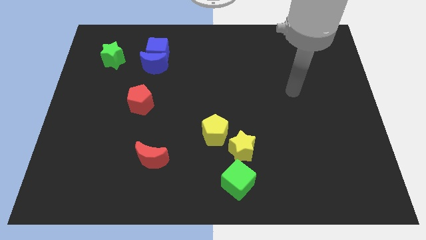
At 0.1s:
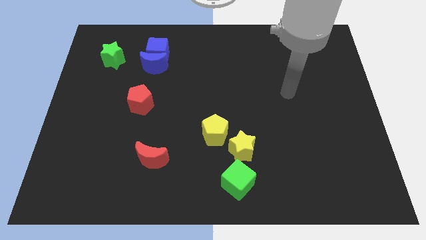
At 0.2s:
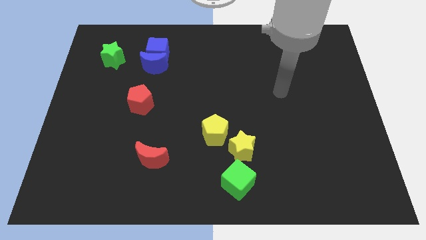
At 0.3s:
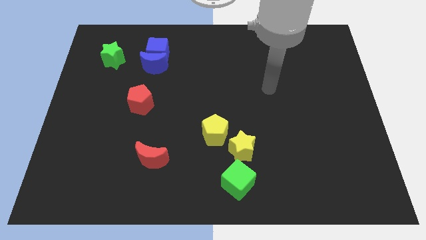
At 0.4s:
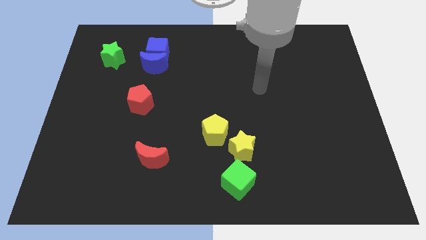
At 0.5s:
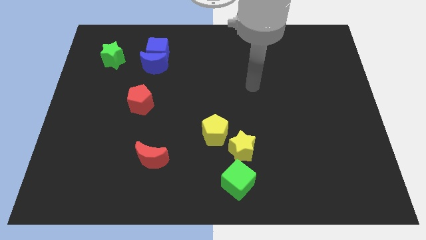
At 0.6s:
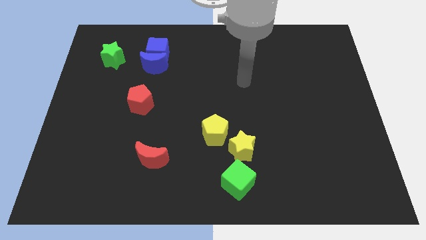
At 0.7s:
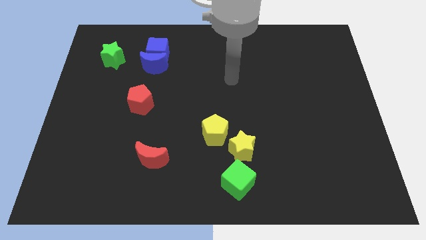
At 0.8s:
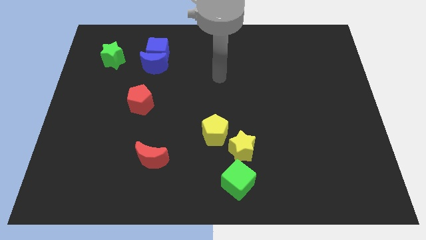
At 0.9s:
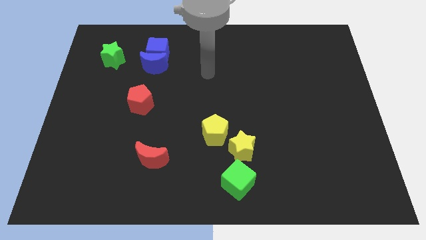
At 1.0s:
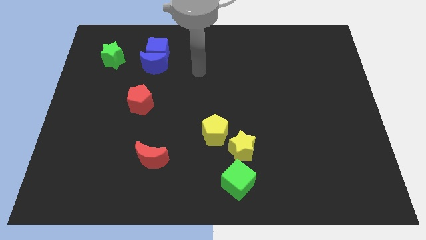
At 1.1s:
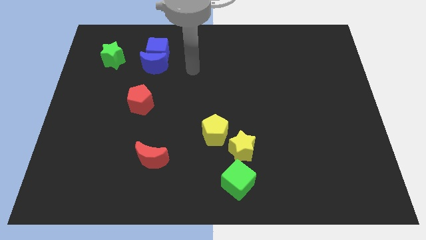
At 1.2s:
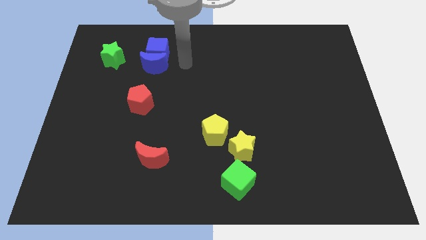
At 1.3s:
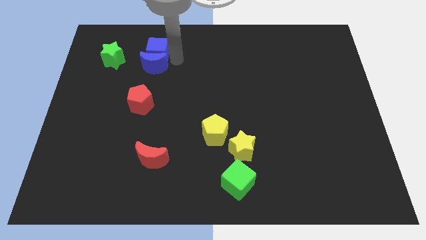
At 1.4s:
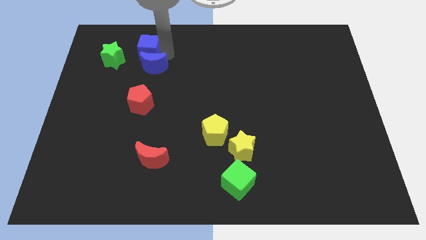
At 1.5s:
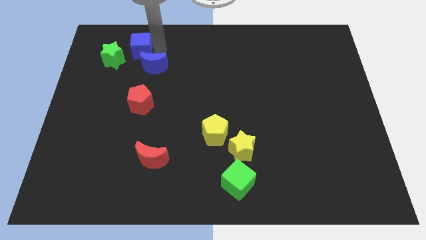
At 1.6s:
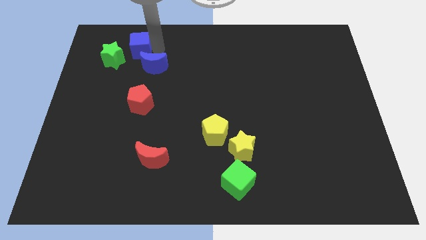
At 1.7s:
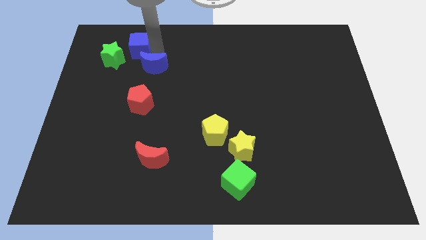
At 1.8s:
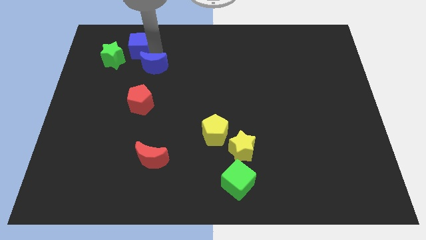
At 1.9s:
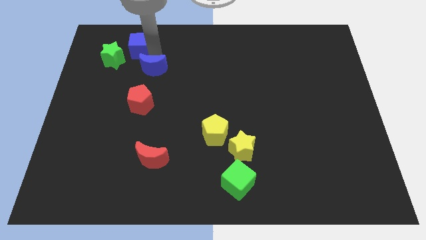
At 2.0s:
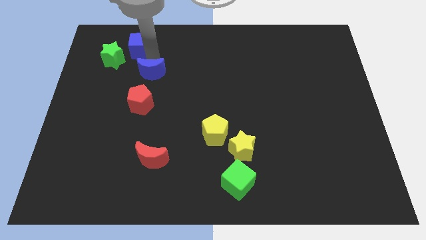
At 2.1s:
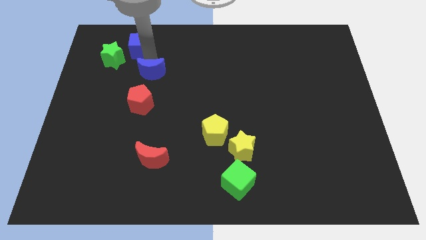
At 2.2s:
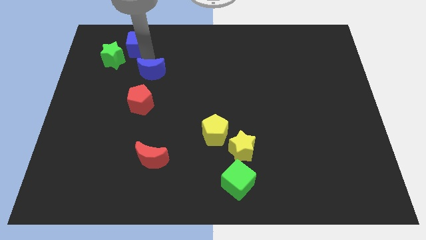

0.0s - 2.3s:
pull the blue moon apart from the blue cube

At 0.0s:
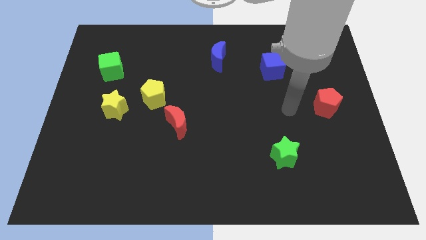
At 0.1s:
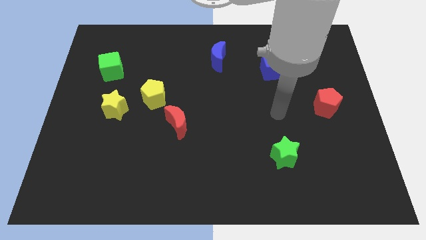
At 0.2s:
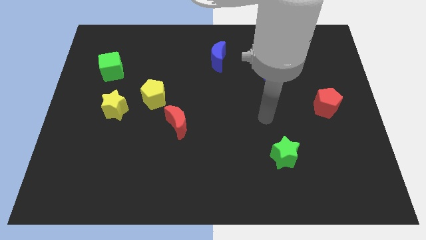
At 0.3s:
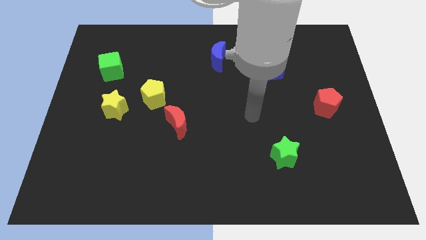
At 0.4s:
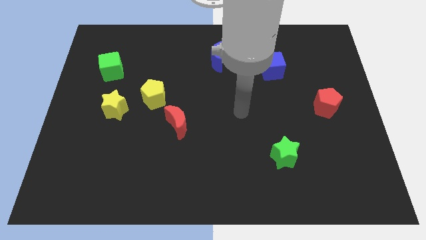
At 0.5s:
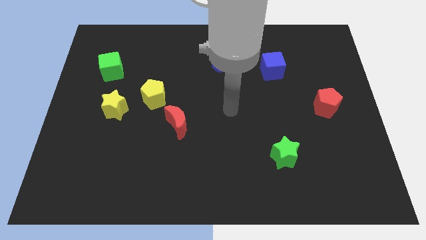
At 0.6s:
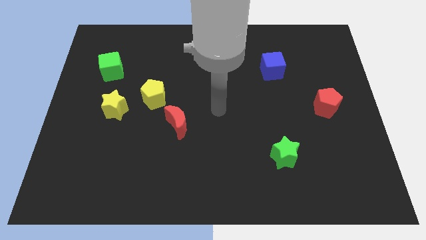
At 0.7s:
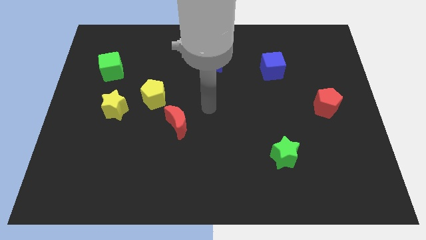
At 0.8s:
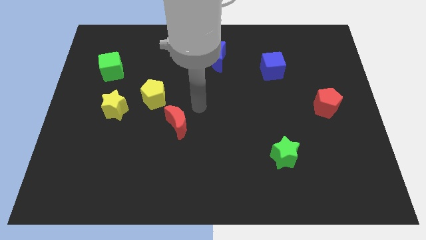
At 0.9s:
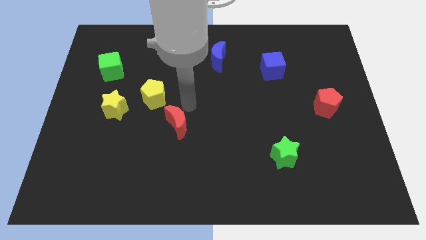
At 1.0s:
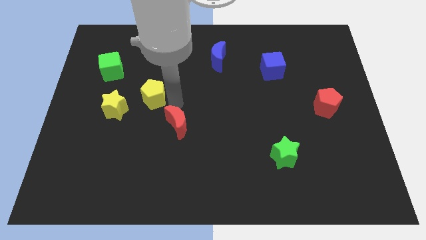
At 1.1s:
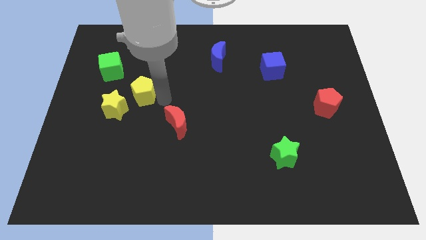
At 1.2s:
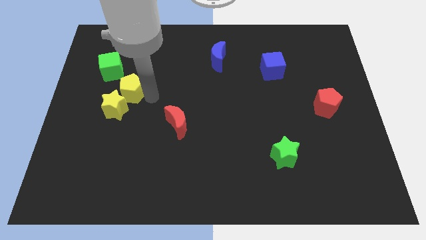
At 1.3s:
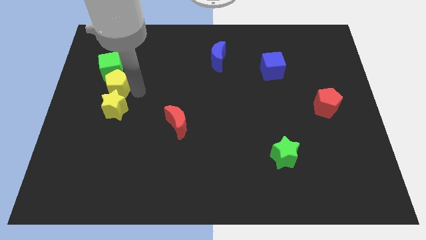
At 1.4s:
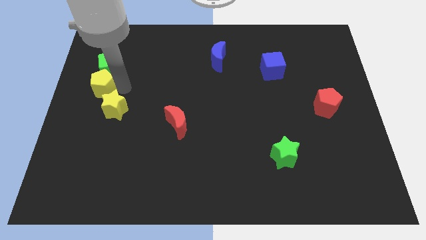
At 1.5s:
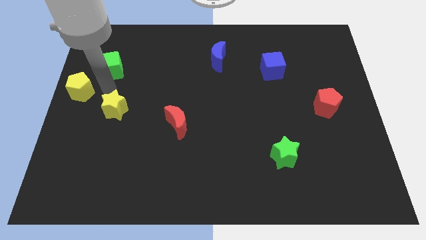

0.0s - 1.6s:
move the yellow star away from the yellow pentagon

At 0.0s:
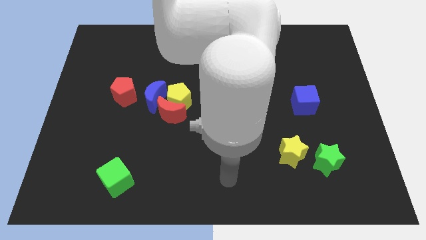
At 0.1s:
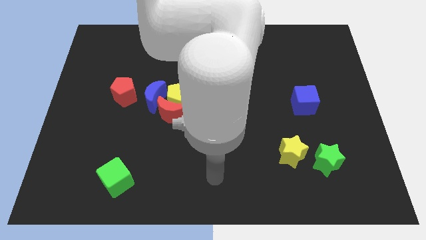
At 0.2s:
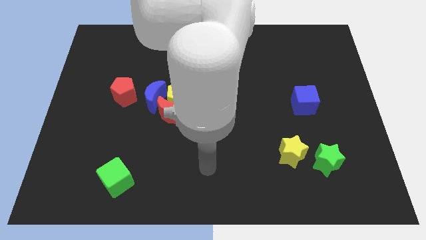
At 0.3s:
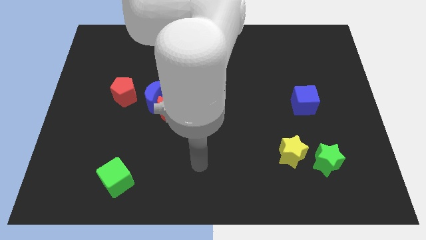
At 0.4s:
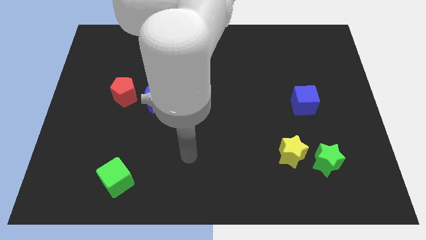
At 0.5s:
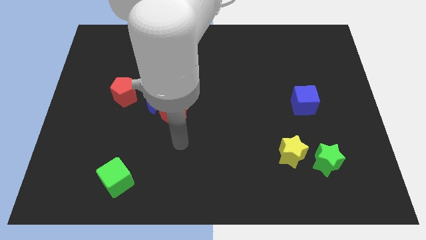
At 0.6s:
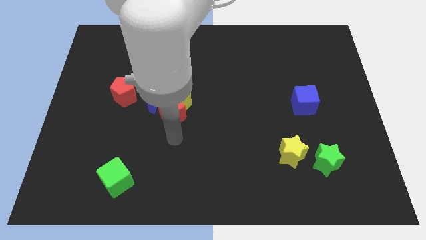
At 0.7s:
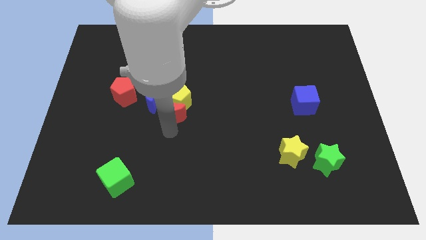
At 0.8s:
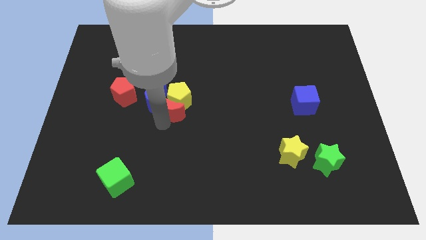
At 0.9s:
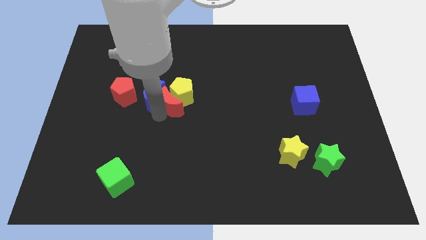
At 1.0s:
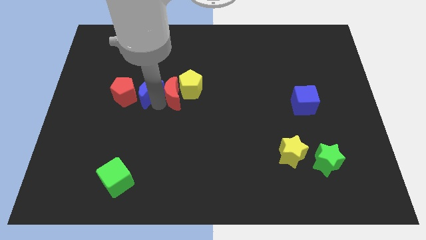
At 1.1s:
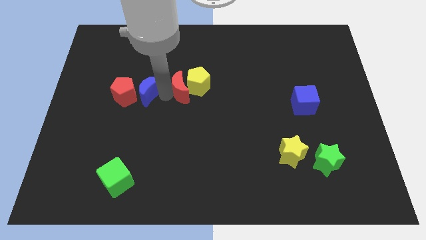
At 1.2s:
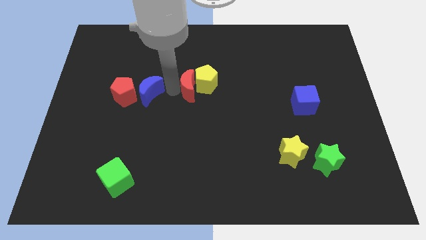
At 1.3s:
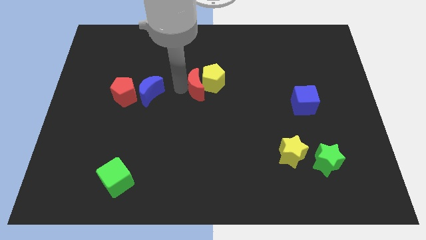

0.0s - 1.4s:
pull the yellow pentagon apart from the red moon and blue moon

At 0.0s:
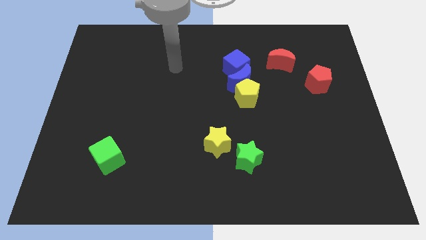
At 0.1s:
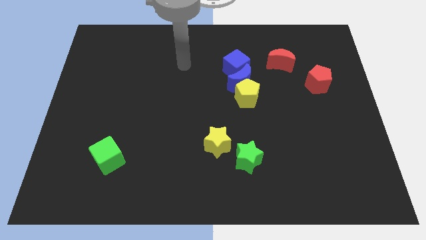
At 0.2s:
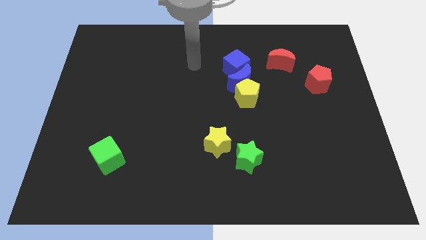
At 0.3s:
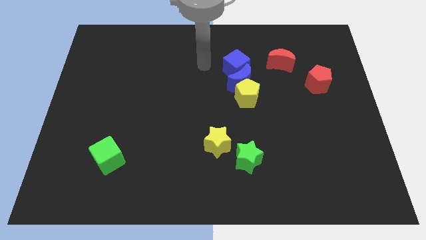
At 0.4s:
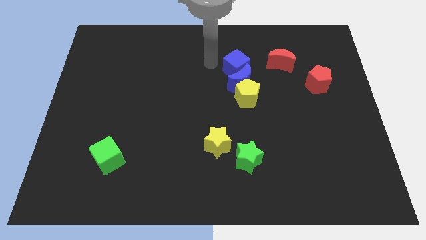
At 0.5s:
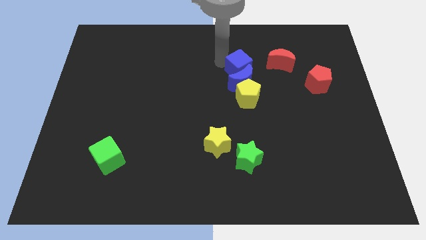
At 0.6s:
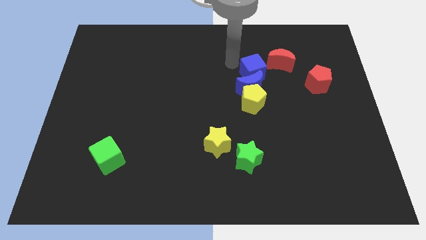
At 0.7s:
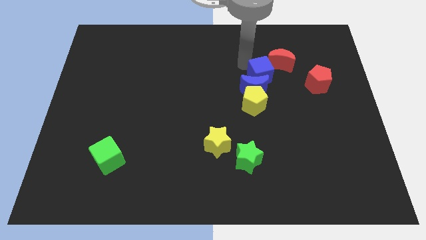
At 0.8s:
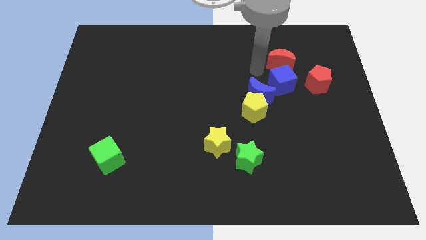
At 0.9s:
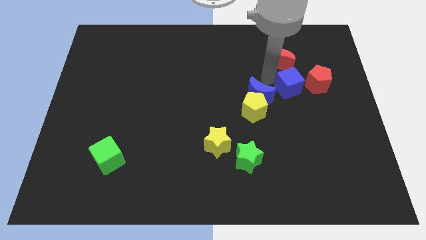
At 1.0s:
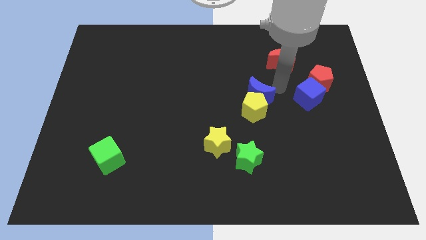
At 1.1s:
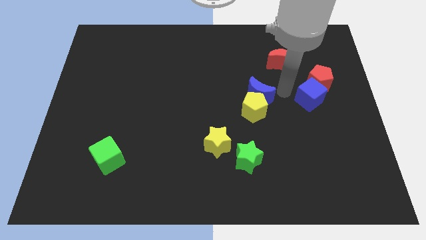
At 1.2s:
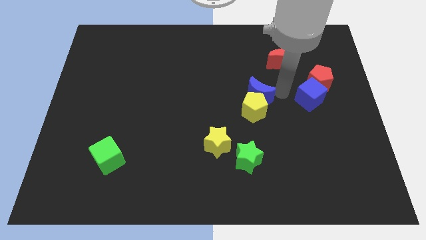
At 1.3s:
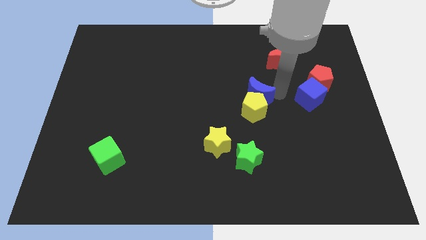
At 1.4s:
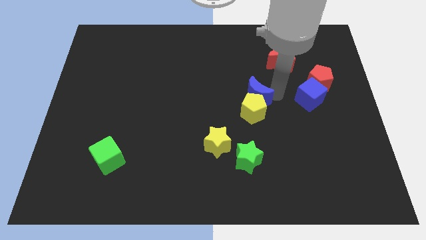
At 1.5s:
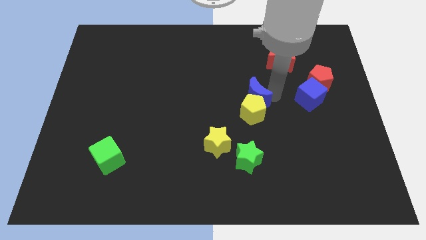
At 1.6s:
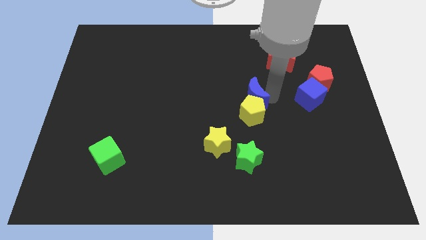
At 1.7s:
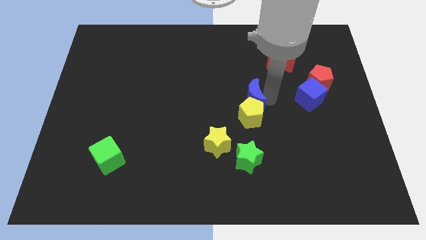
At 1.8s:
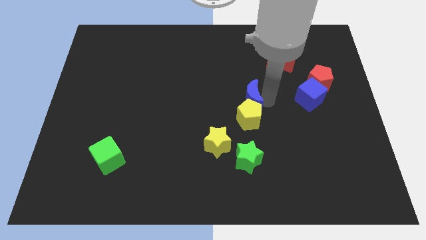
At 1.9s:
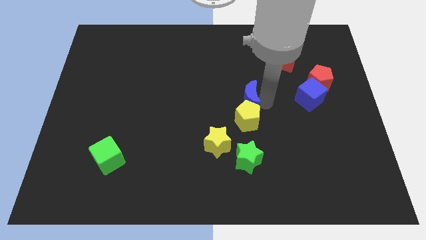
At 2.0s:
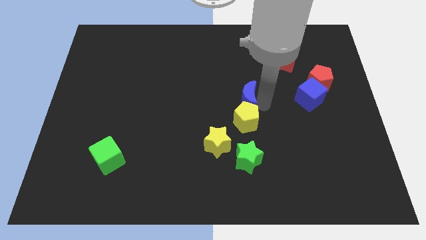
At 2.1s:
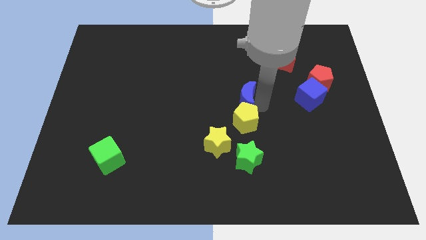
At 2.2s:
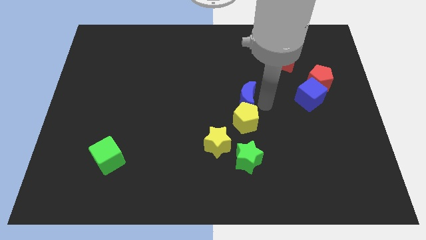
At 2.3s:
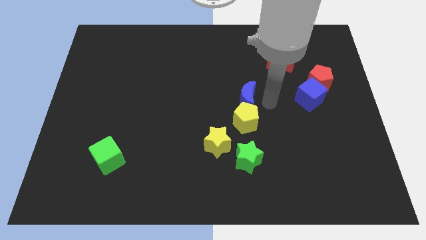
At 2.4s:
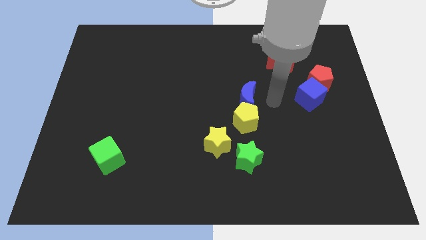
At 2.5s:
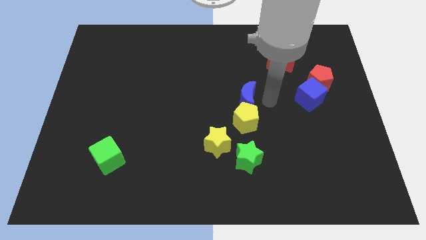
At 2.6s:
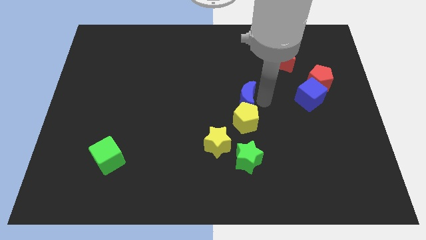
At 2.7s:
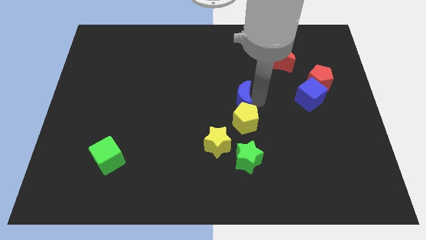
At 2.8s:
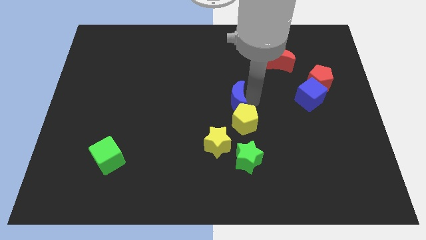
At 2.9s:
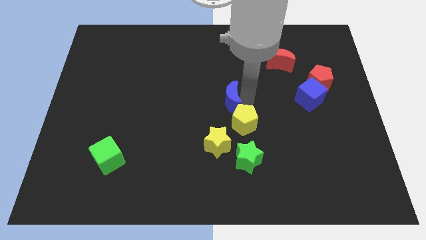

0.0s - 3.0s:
separate the blue moon from the yellow pentagon and blue cube

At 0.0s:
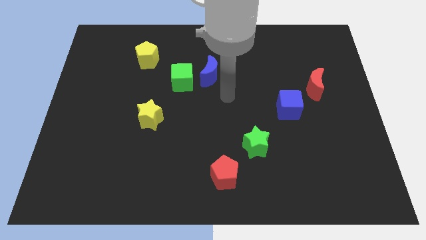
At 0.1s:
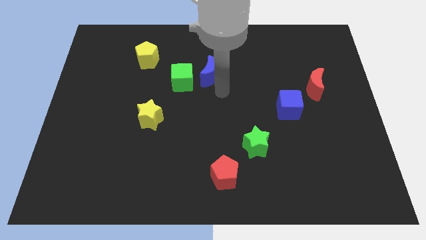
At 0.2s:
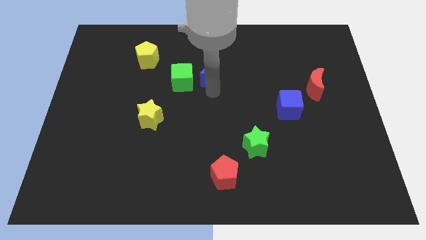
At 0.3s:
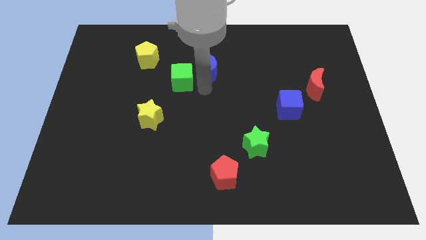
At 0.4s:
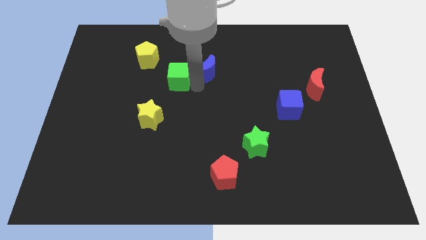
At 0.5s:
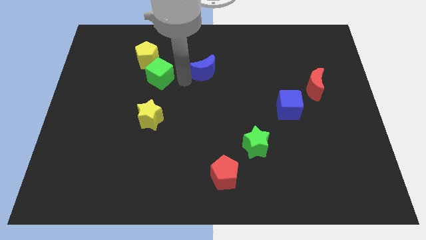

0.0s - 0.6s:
pull the blue moon apart from the green cube

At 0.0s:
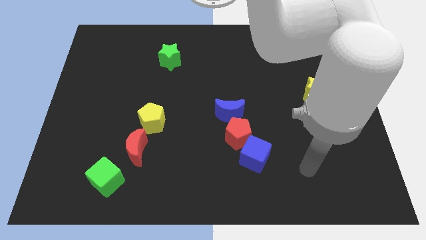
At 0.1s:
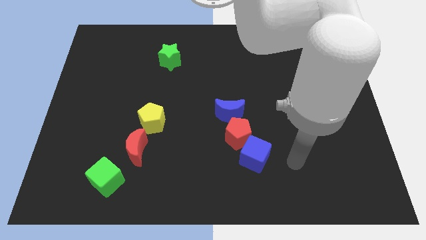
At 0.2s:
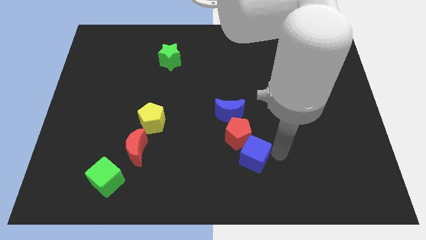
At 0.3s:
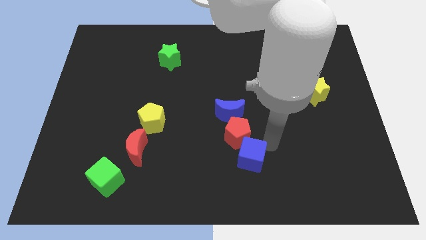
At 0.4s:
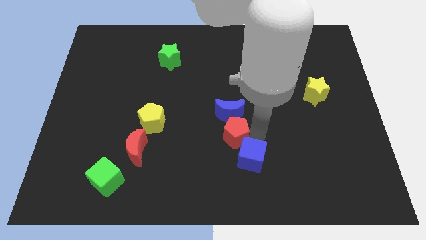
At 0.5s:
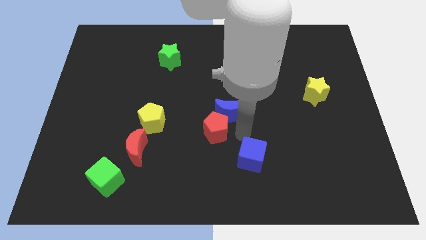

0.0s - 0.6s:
move the blue cube away from the red pentagon

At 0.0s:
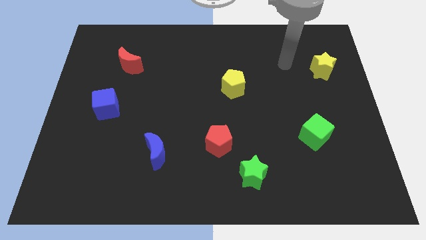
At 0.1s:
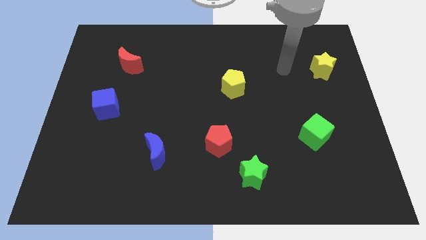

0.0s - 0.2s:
move the red pentagon away from the green star
